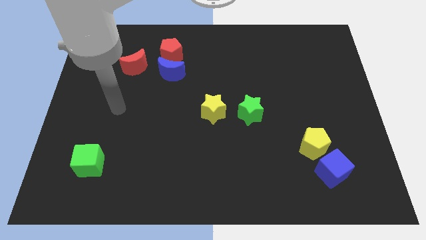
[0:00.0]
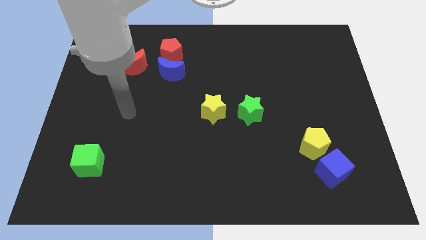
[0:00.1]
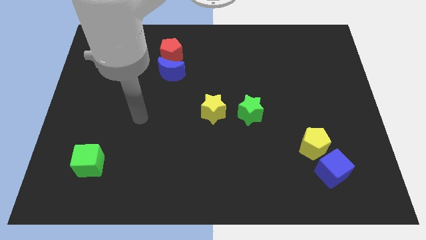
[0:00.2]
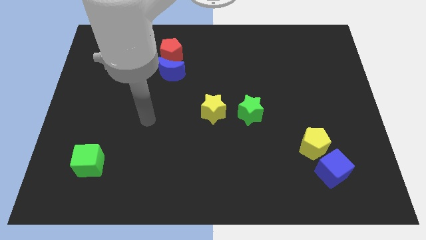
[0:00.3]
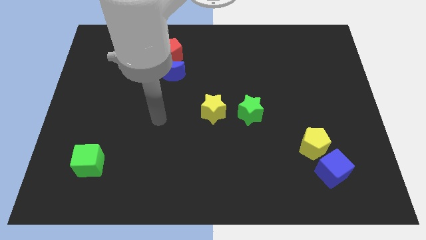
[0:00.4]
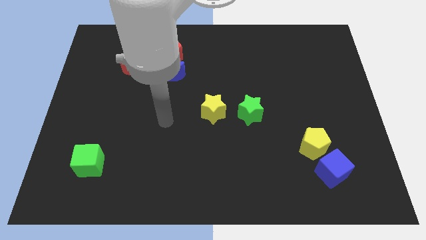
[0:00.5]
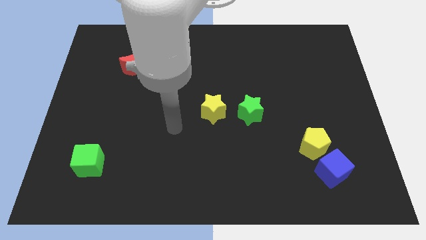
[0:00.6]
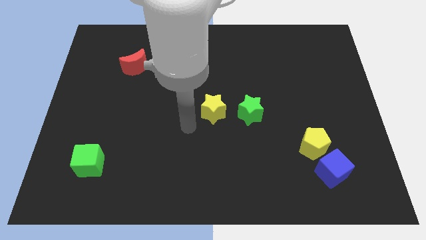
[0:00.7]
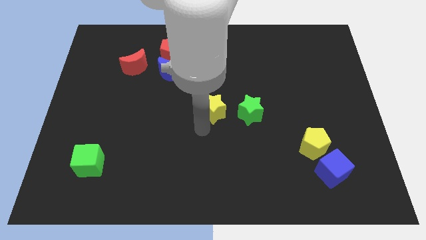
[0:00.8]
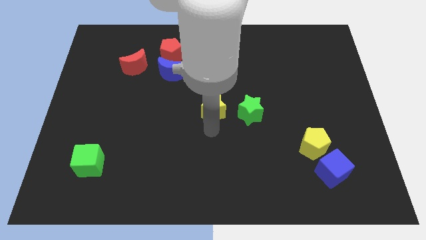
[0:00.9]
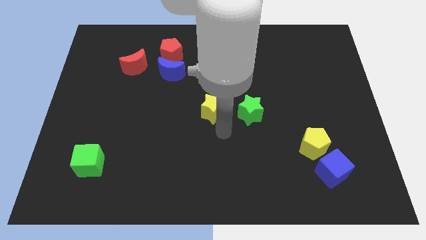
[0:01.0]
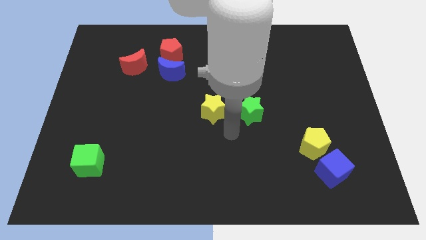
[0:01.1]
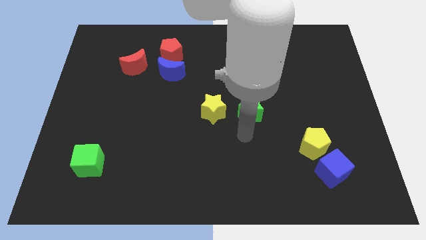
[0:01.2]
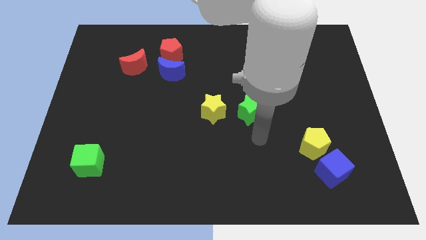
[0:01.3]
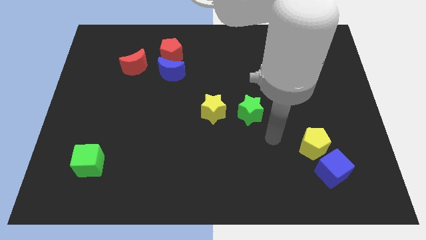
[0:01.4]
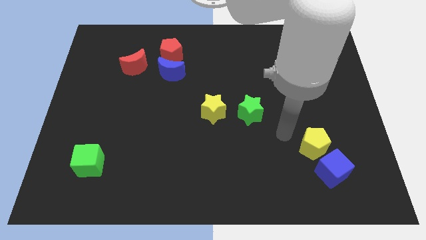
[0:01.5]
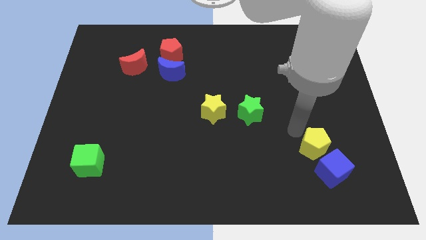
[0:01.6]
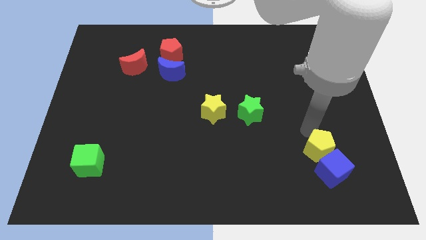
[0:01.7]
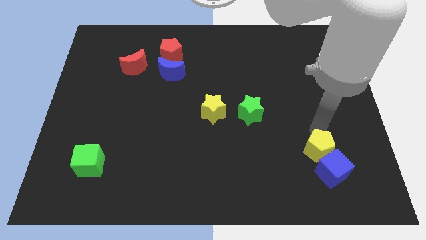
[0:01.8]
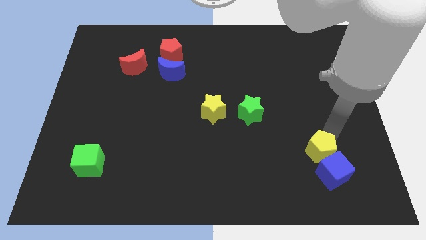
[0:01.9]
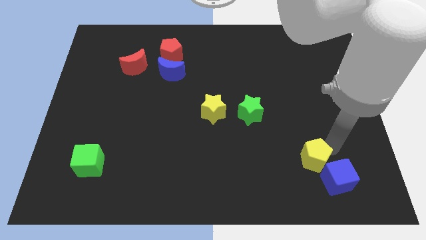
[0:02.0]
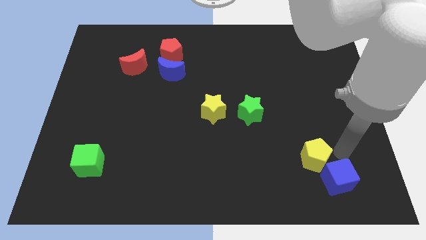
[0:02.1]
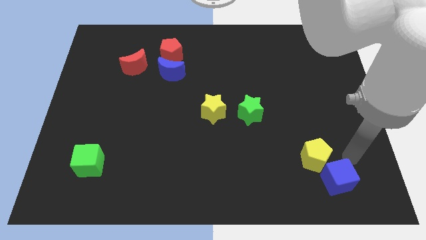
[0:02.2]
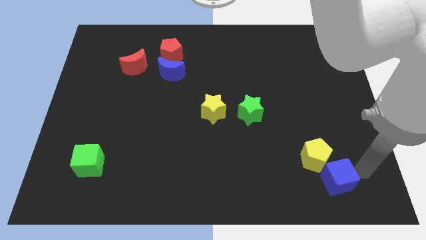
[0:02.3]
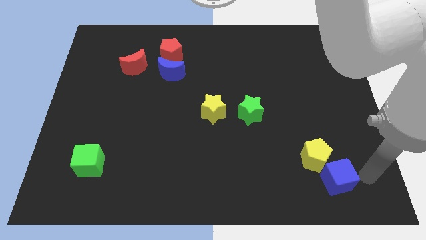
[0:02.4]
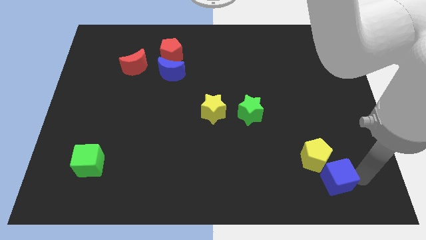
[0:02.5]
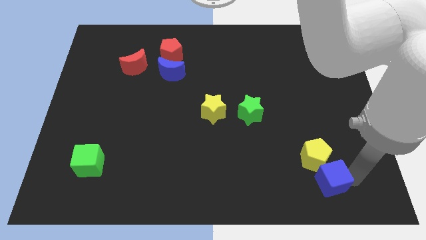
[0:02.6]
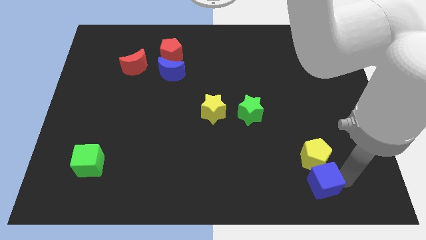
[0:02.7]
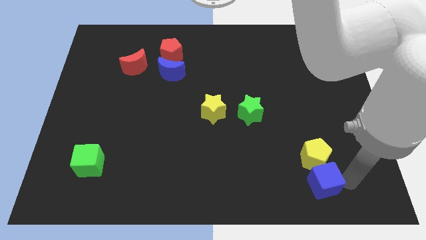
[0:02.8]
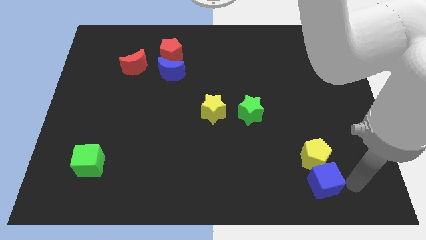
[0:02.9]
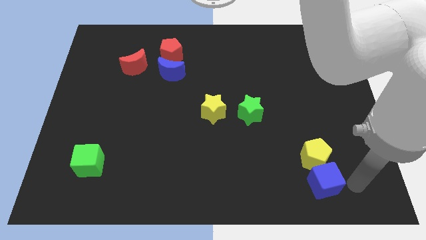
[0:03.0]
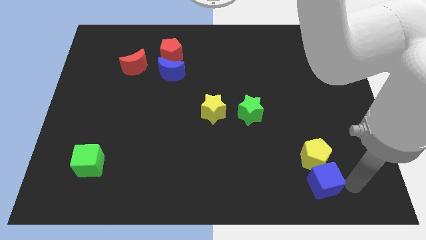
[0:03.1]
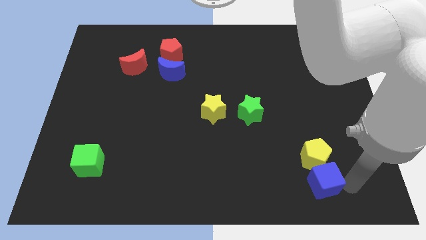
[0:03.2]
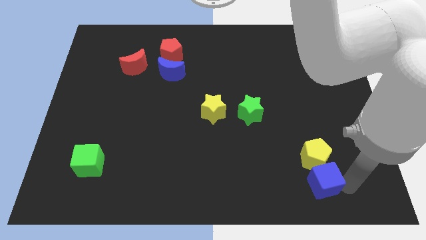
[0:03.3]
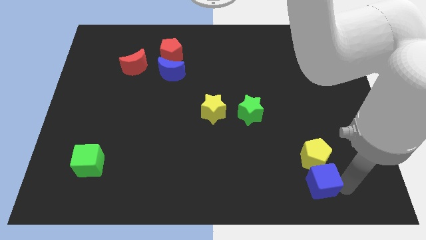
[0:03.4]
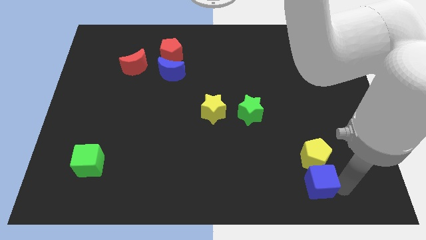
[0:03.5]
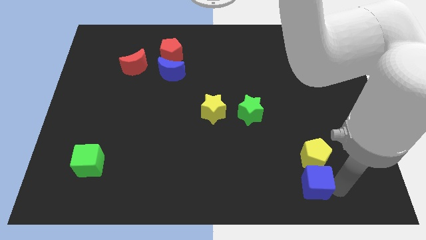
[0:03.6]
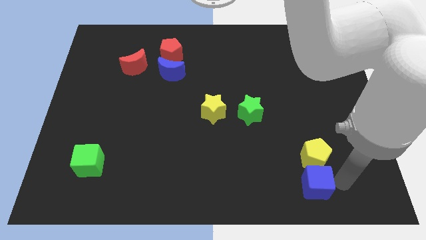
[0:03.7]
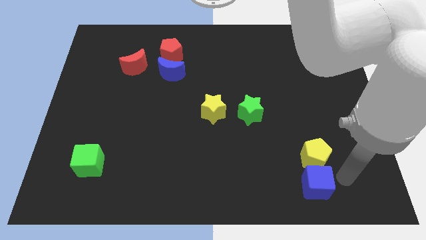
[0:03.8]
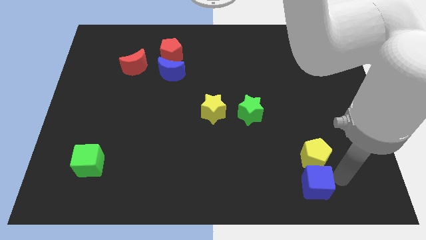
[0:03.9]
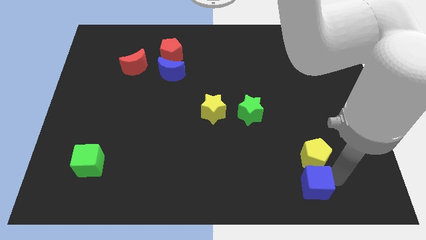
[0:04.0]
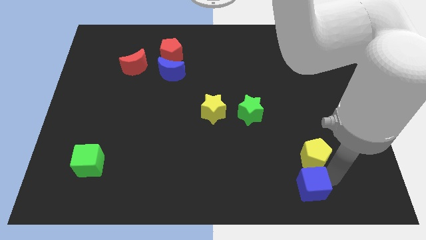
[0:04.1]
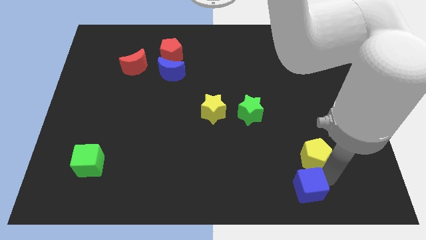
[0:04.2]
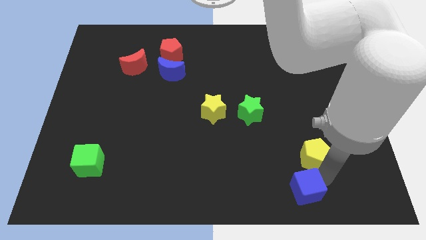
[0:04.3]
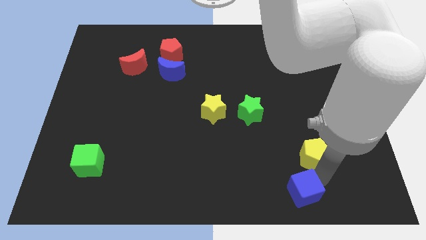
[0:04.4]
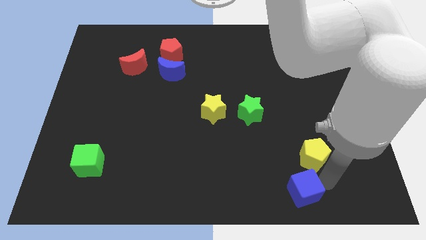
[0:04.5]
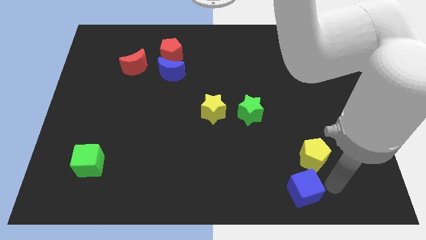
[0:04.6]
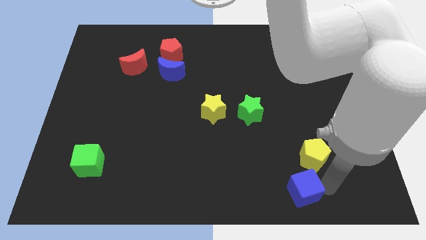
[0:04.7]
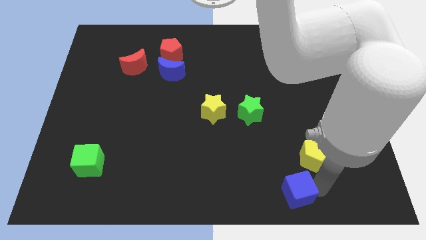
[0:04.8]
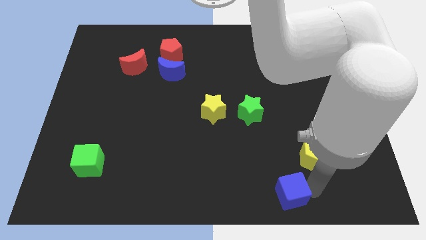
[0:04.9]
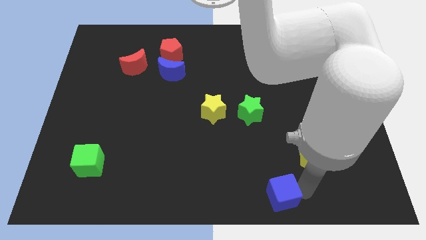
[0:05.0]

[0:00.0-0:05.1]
push the blue cube to the bottom side

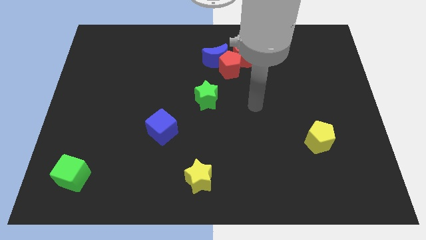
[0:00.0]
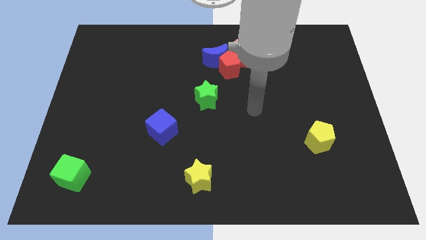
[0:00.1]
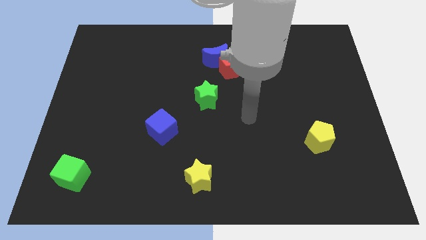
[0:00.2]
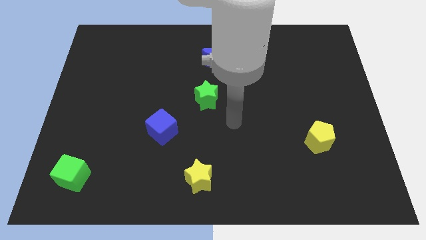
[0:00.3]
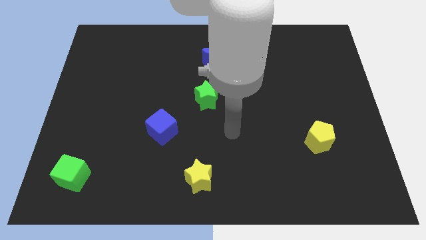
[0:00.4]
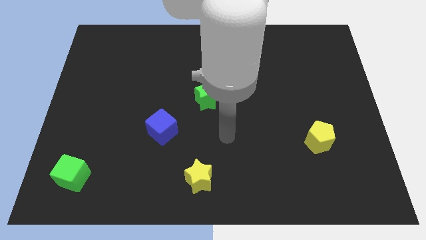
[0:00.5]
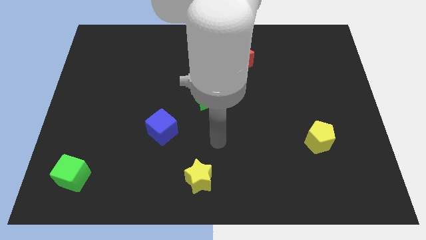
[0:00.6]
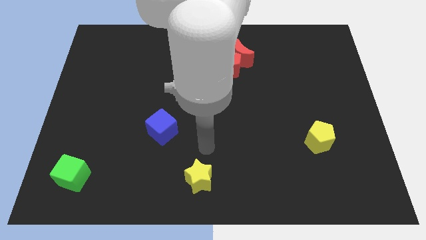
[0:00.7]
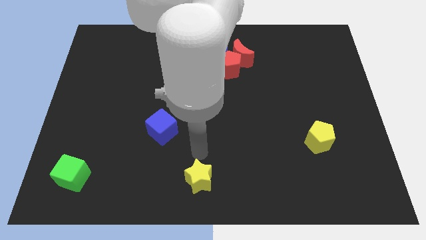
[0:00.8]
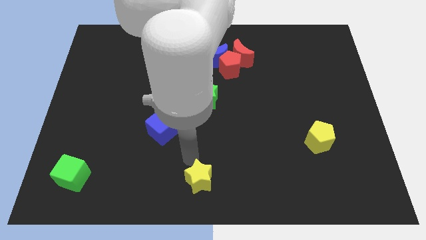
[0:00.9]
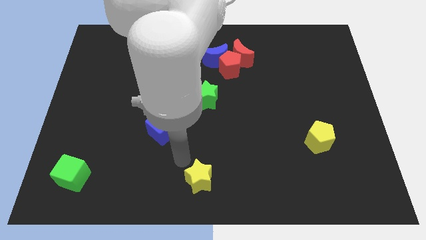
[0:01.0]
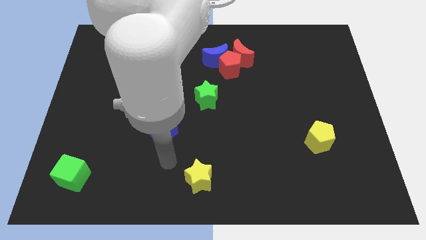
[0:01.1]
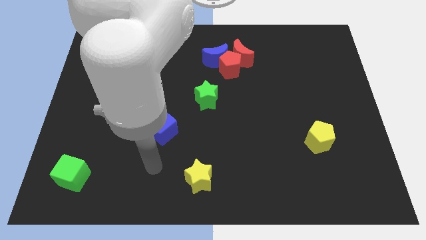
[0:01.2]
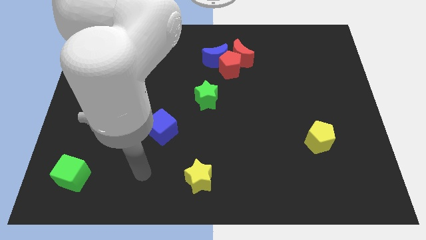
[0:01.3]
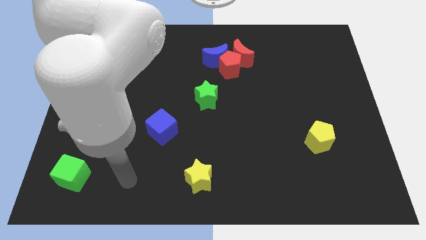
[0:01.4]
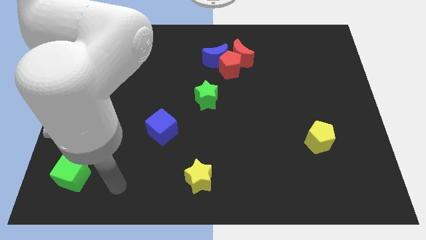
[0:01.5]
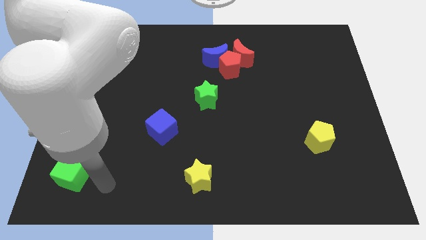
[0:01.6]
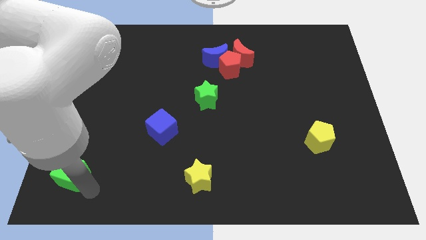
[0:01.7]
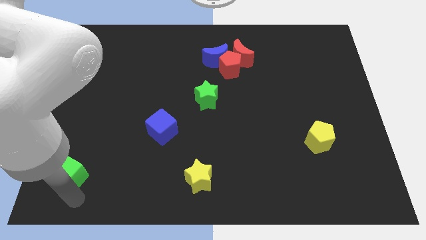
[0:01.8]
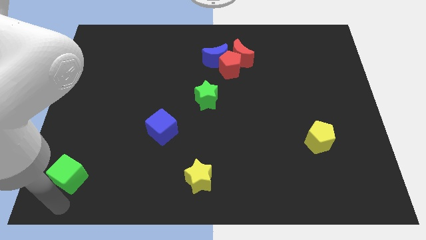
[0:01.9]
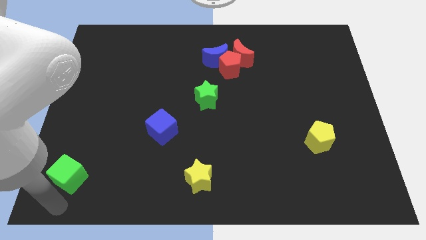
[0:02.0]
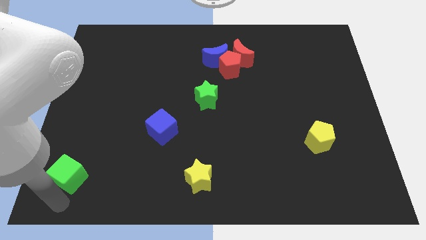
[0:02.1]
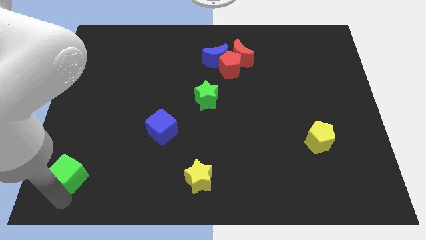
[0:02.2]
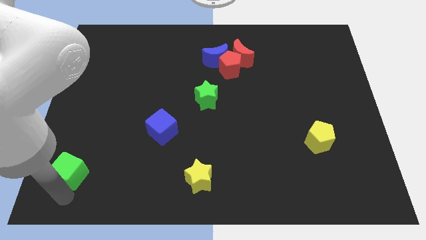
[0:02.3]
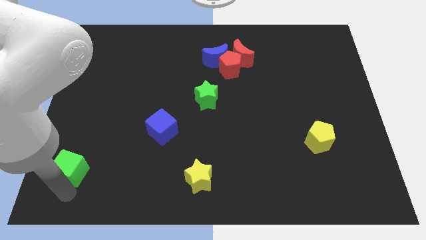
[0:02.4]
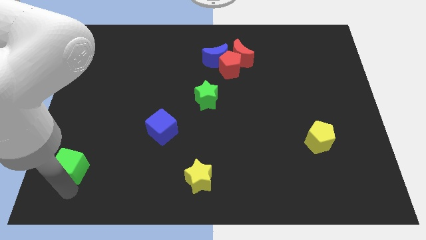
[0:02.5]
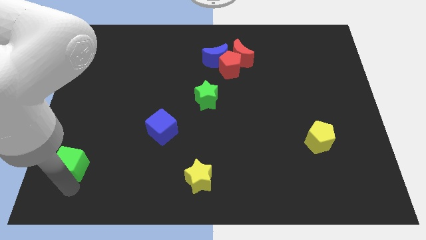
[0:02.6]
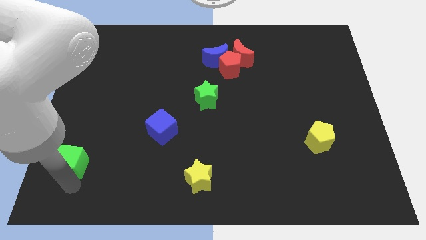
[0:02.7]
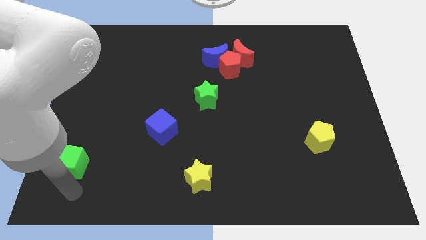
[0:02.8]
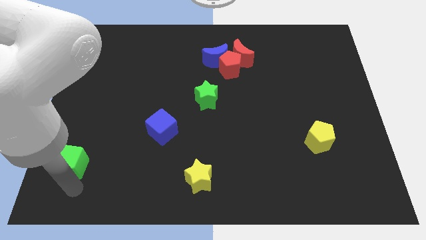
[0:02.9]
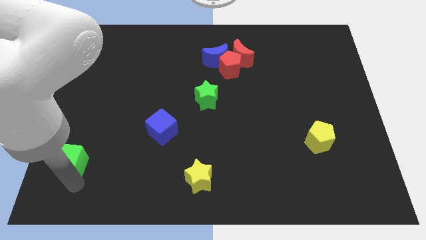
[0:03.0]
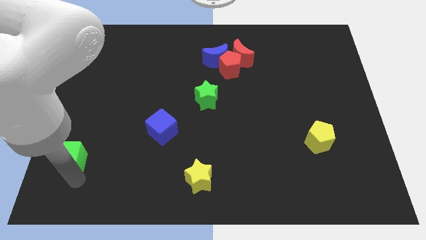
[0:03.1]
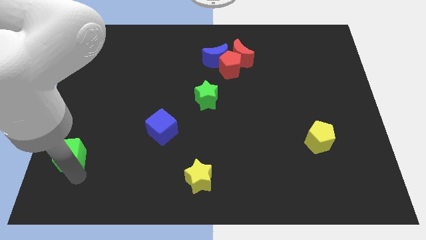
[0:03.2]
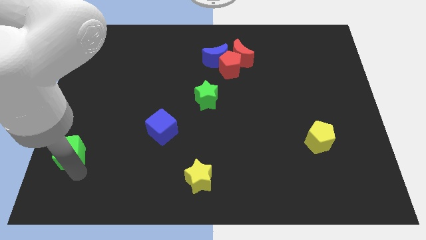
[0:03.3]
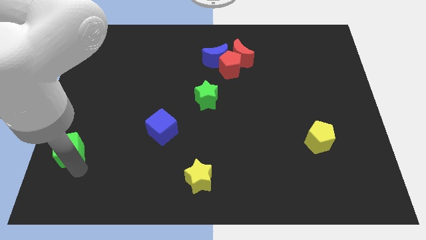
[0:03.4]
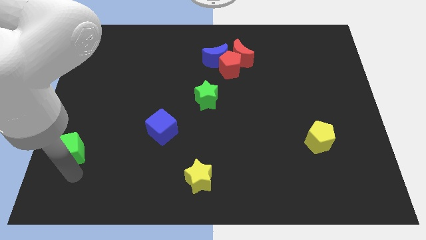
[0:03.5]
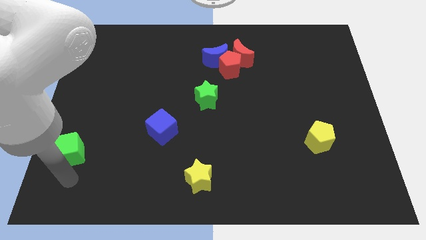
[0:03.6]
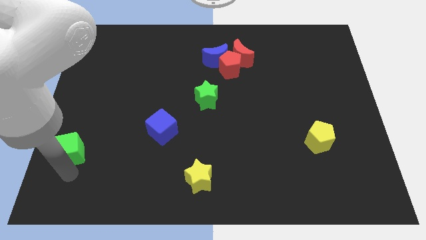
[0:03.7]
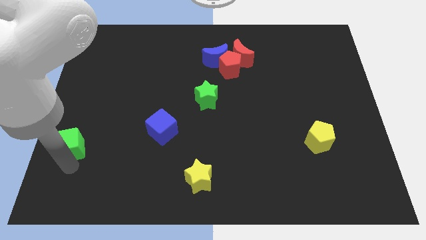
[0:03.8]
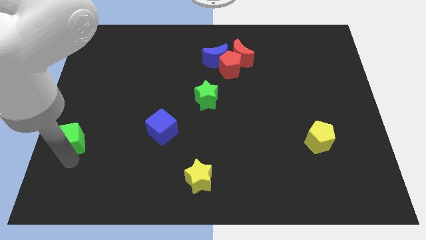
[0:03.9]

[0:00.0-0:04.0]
slide the green cube to the left side
